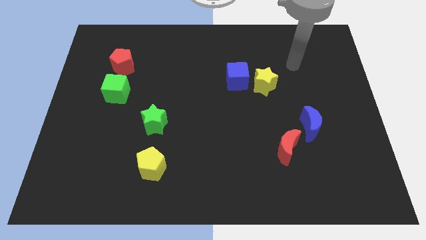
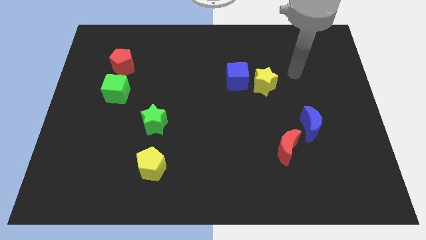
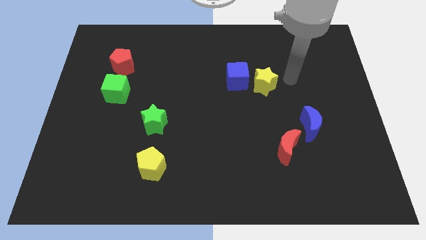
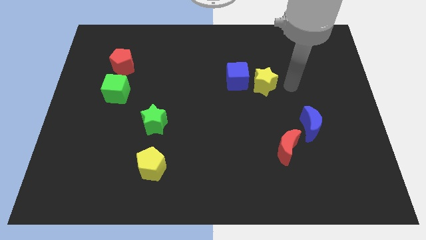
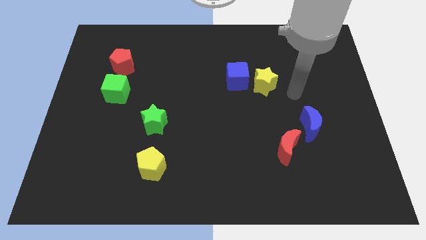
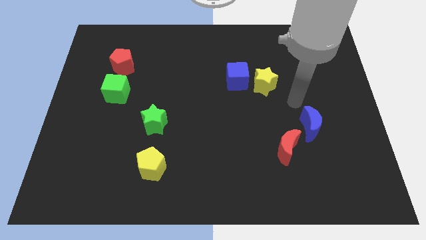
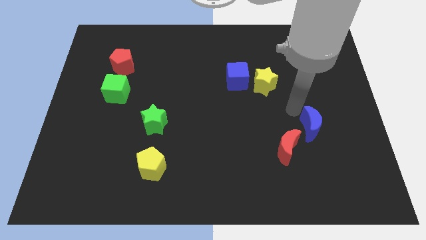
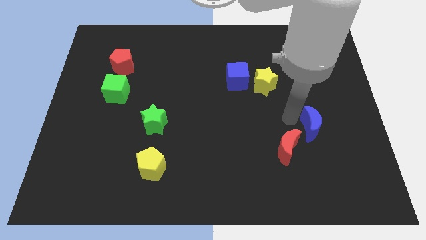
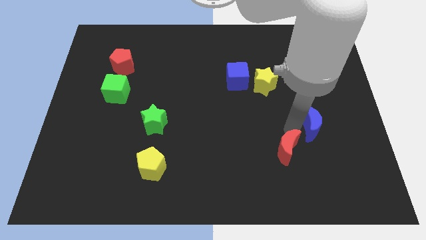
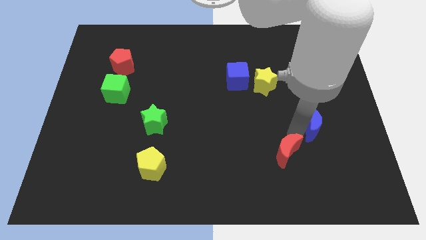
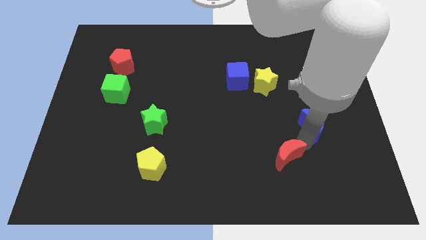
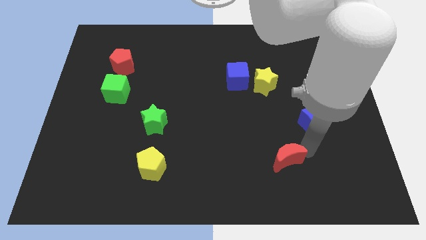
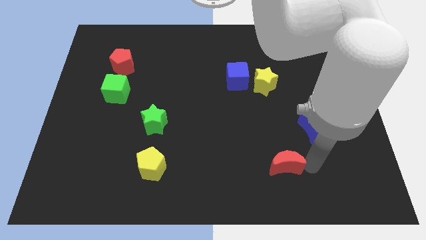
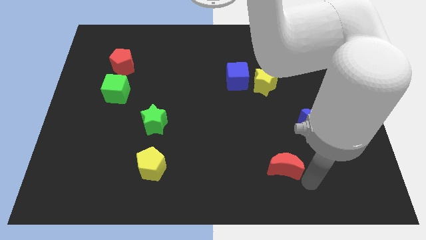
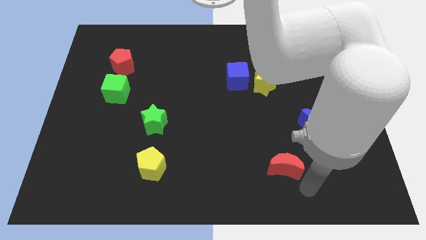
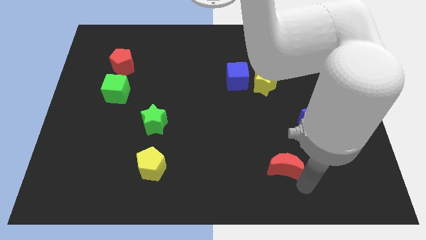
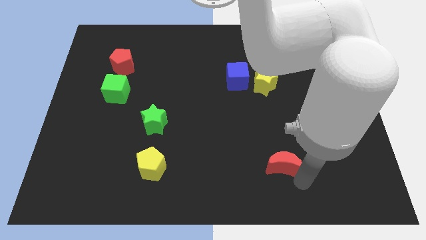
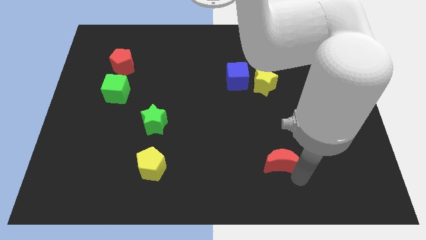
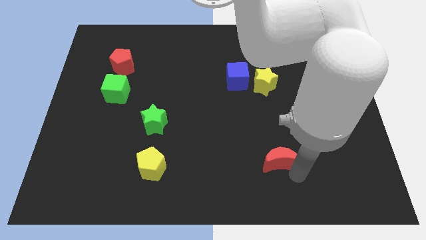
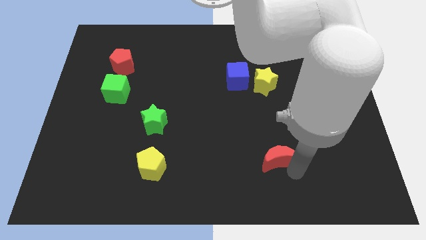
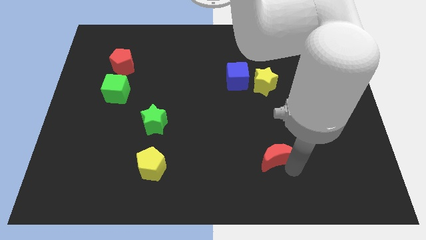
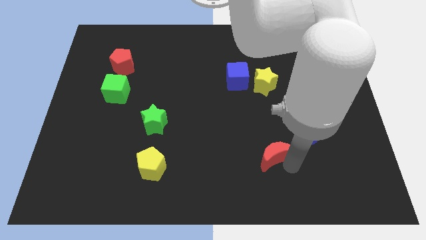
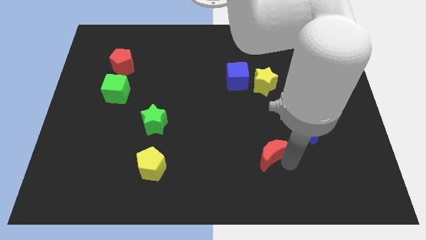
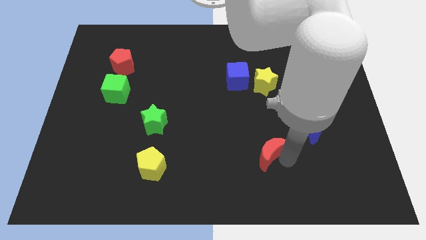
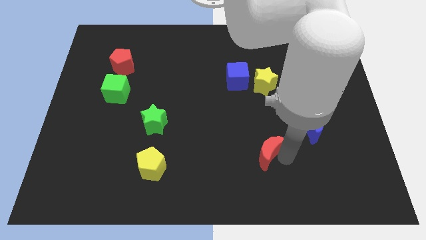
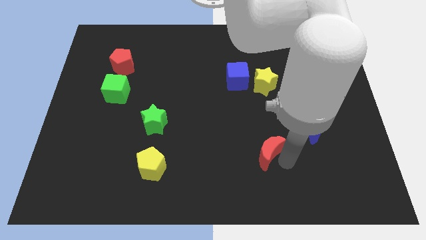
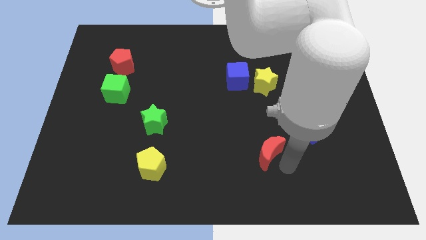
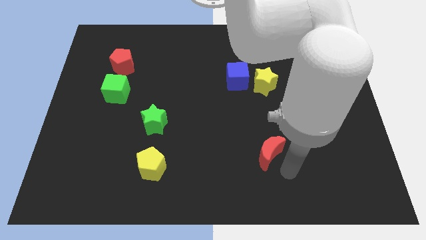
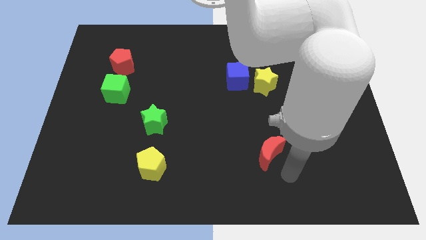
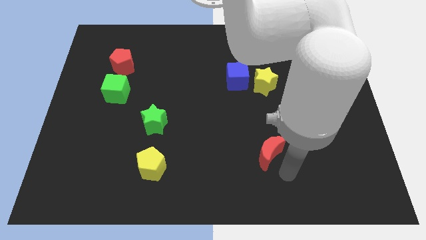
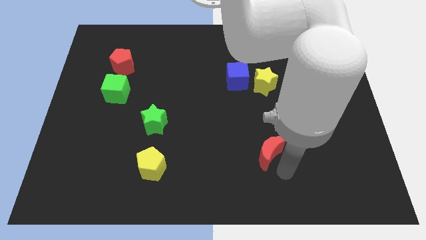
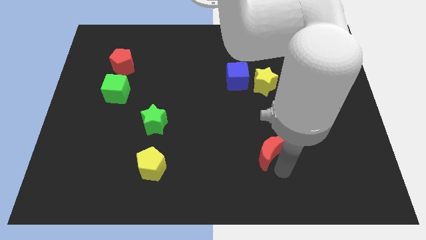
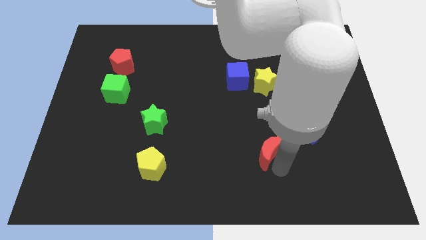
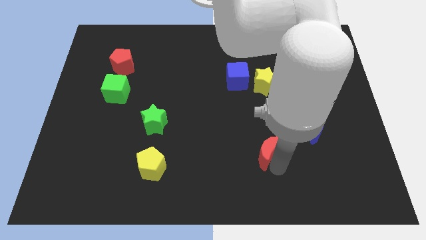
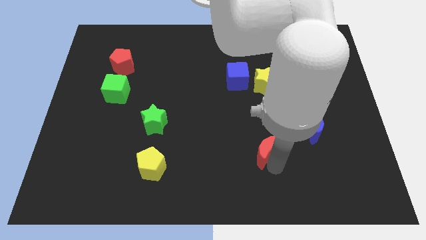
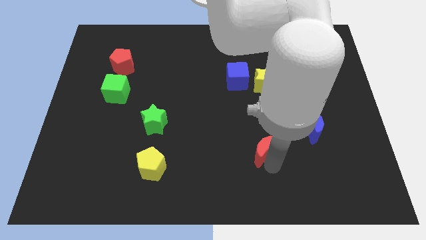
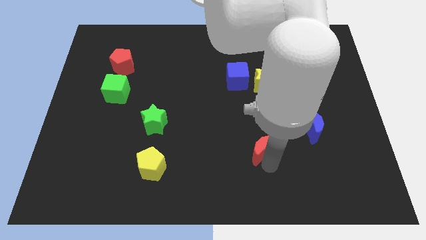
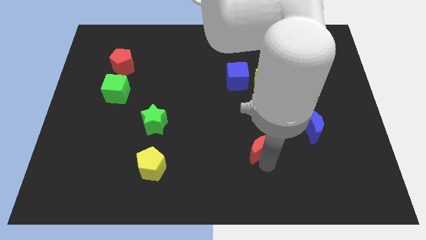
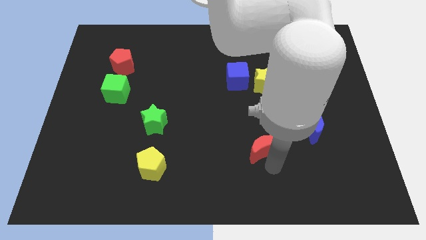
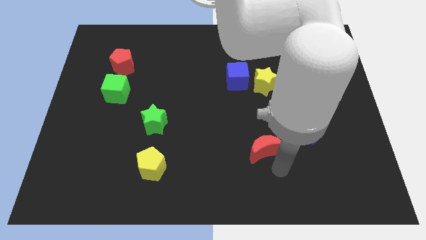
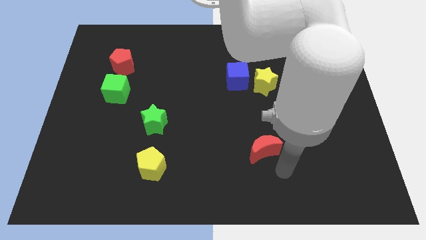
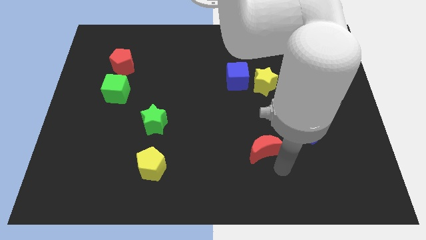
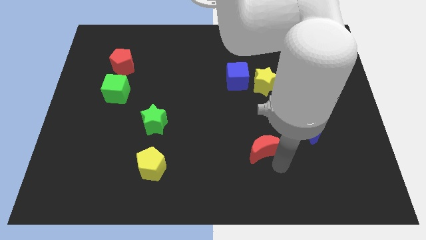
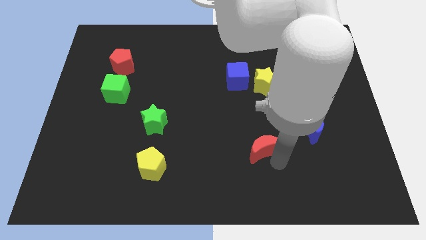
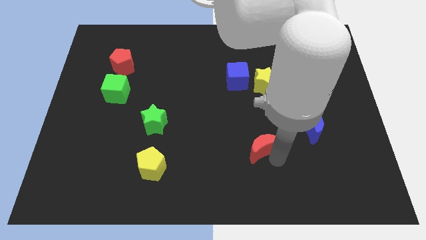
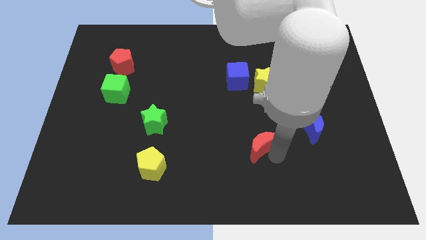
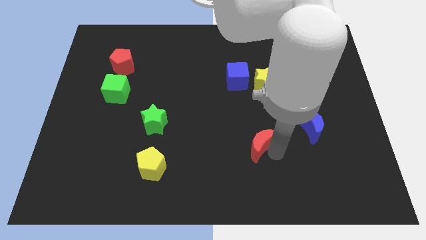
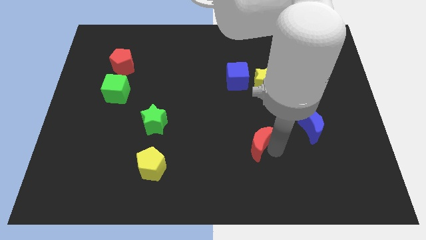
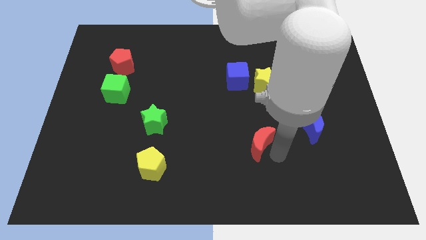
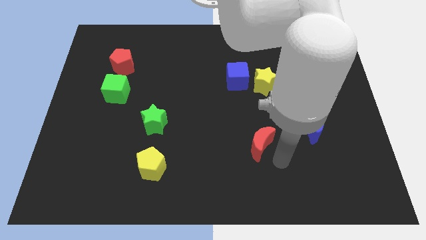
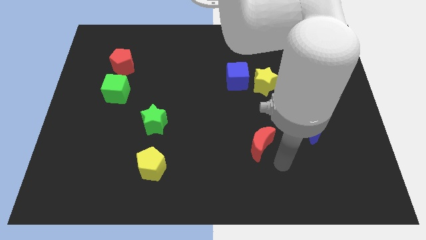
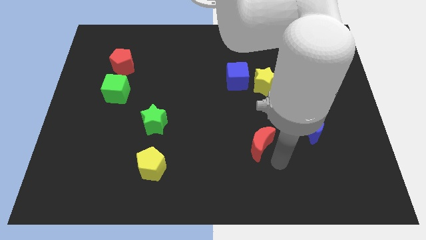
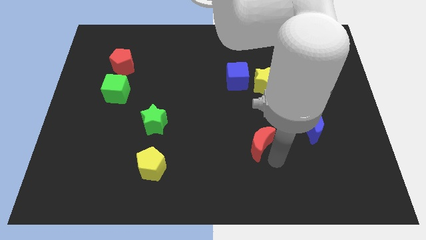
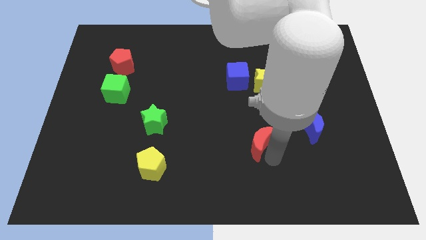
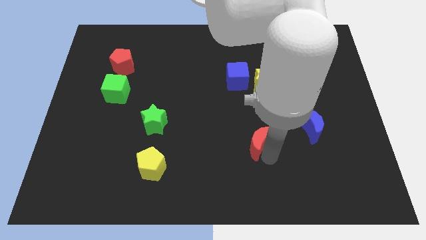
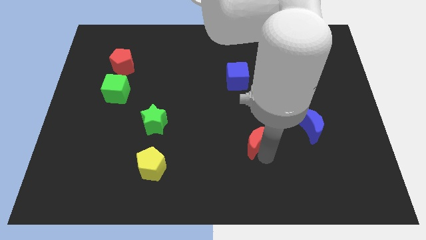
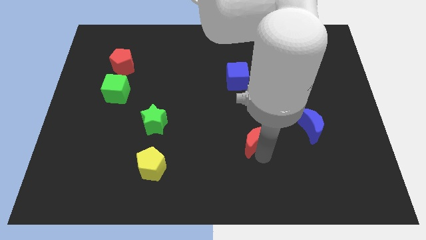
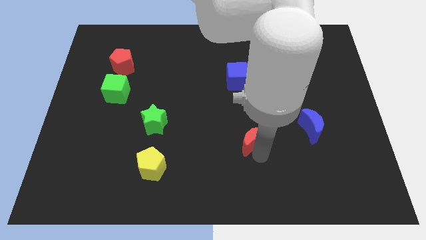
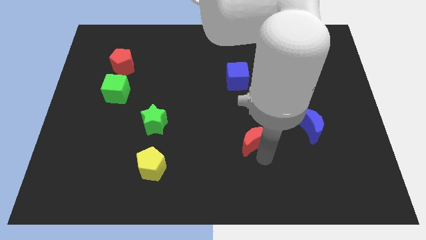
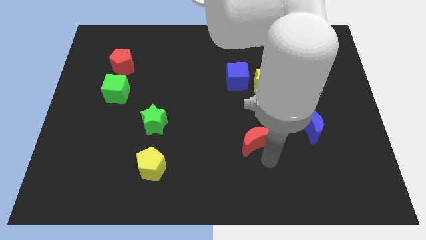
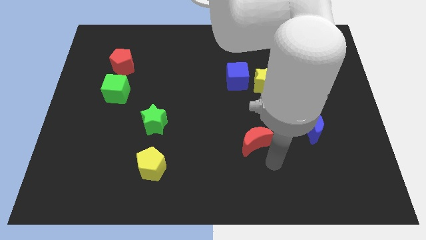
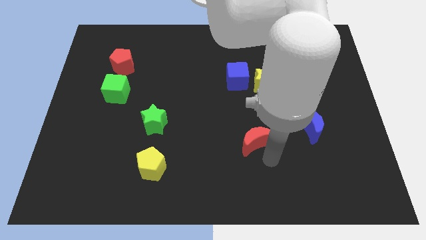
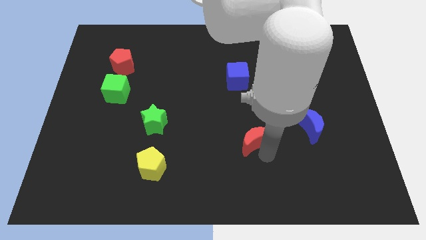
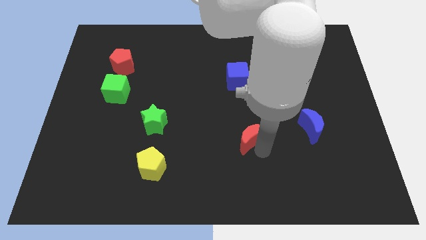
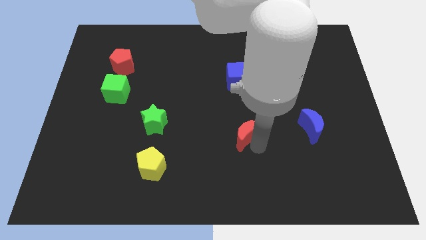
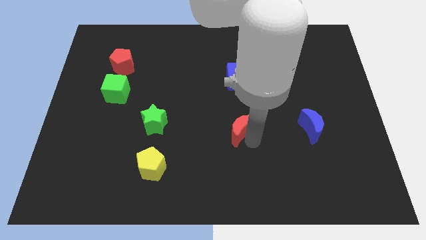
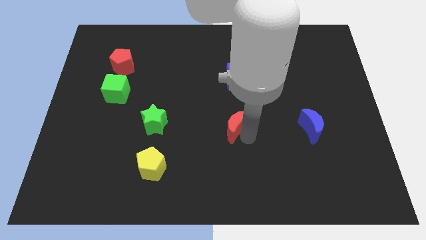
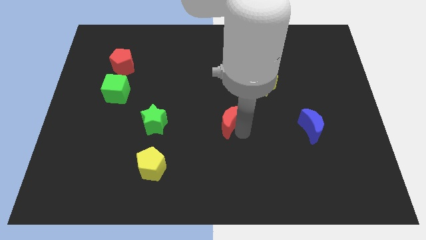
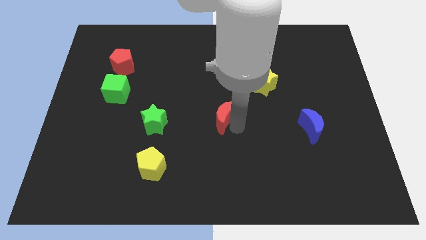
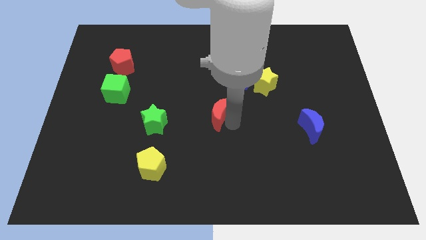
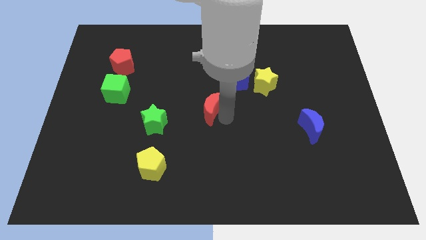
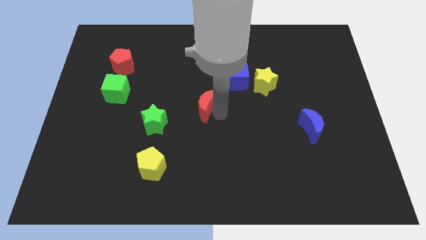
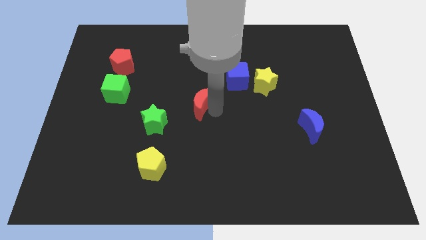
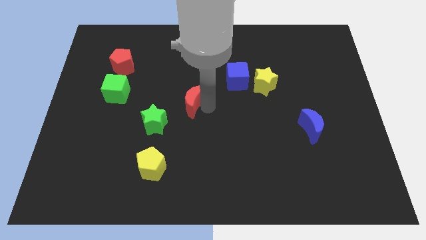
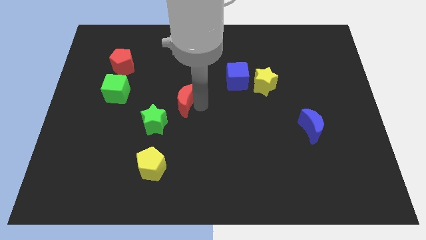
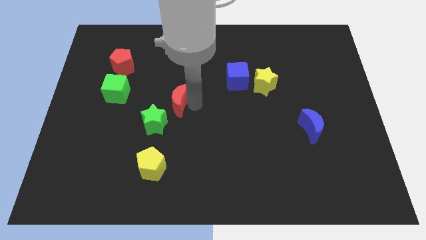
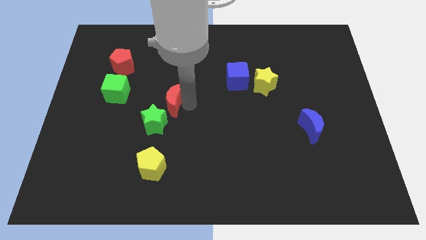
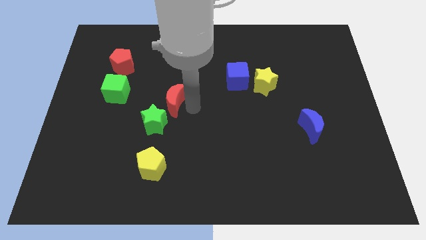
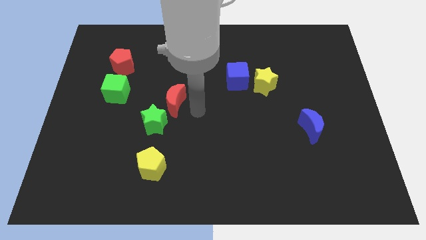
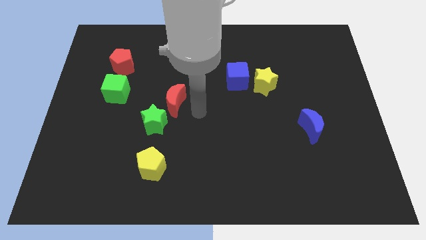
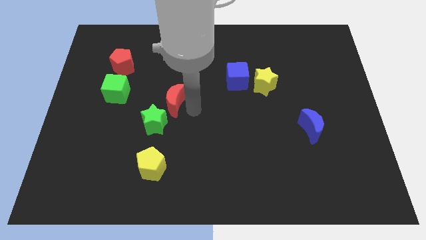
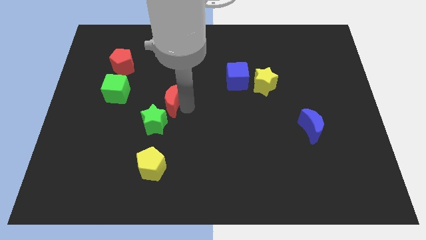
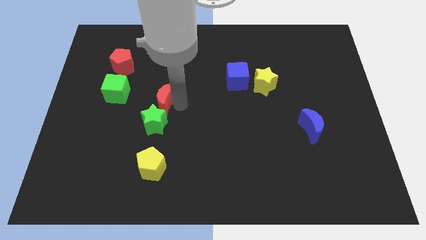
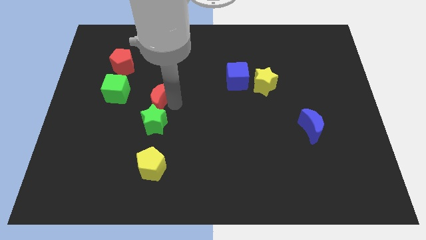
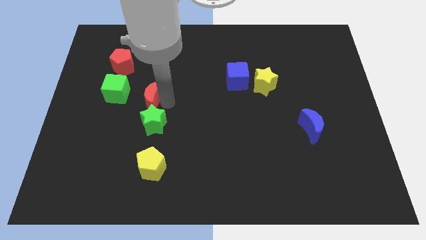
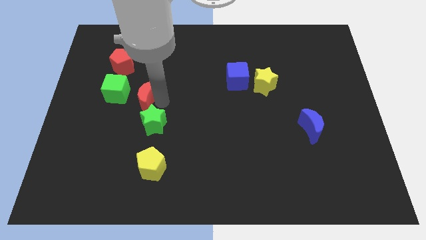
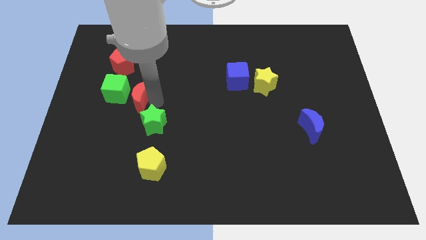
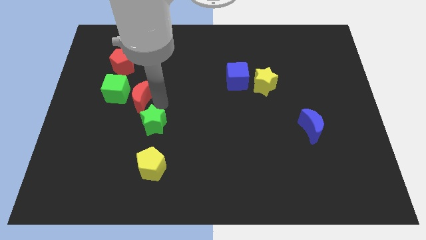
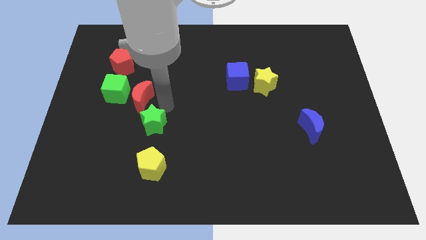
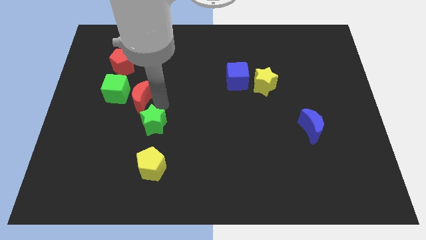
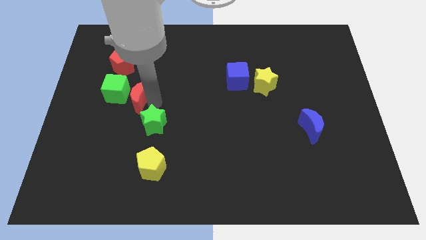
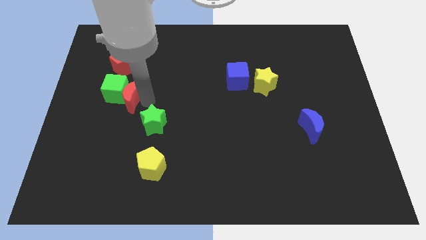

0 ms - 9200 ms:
slide the red moon next to the green cube
